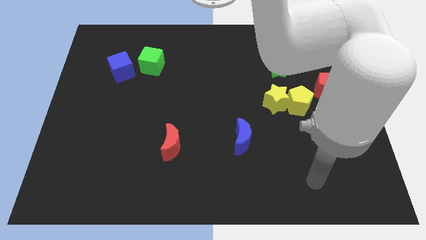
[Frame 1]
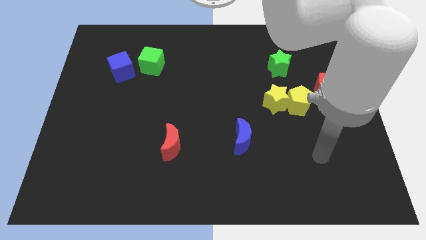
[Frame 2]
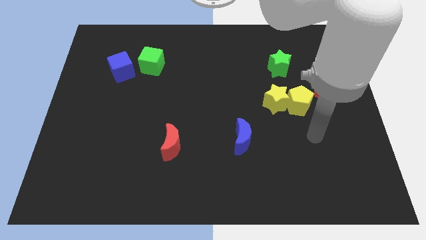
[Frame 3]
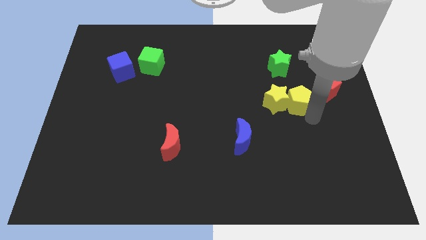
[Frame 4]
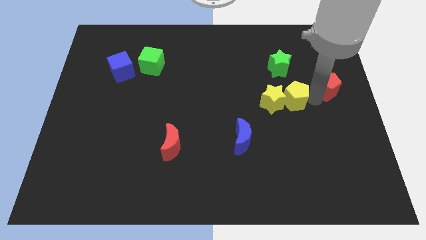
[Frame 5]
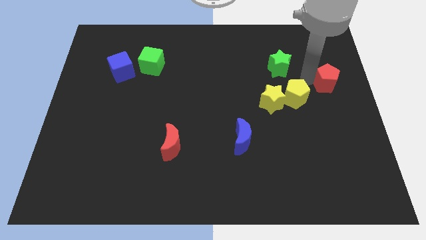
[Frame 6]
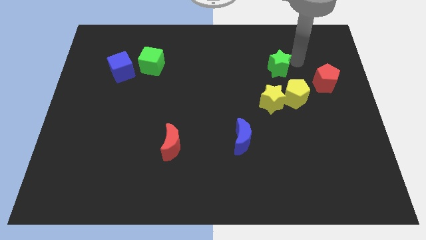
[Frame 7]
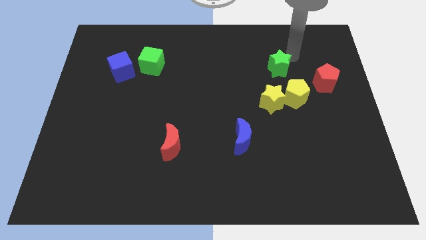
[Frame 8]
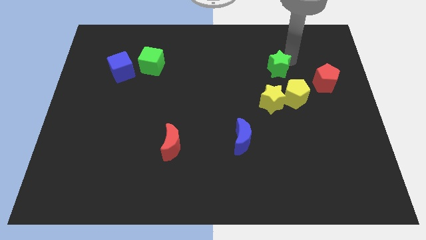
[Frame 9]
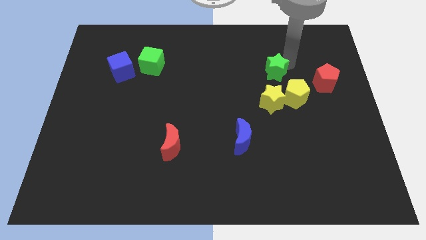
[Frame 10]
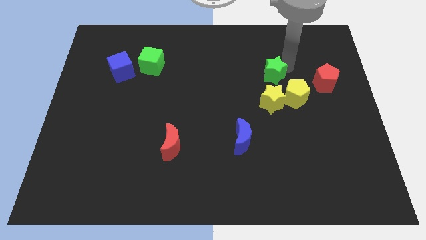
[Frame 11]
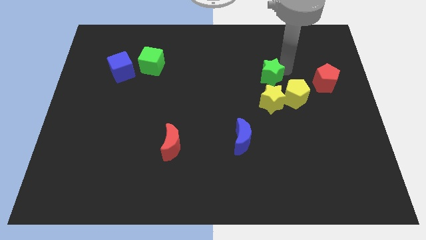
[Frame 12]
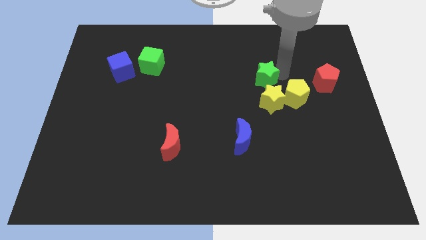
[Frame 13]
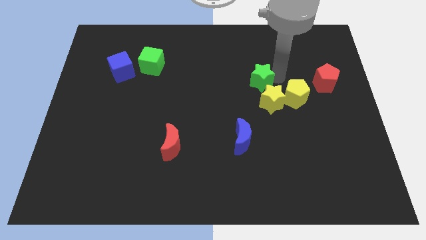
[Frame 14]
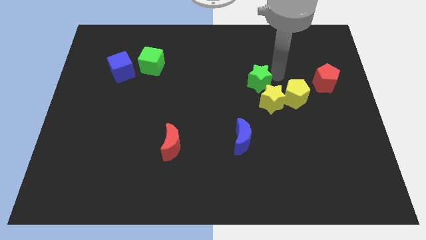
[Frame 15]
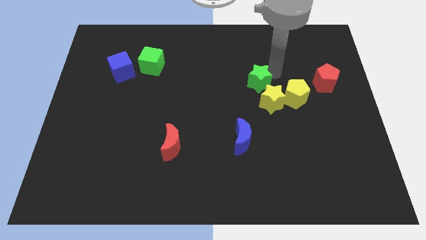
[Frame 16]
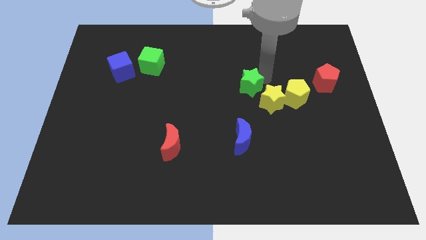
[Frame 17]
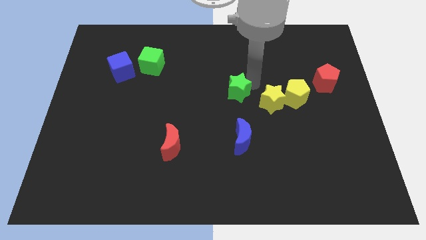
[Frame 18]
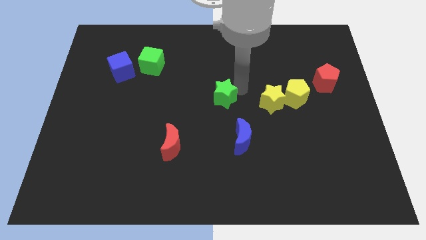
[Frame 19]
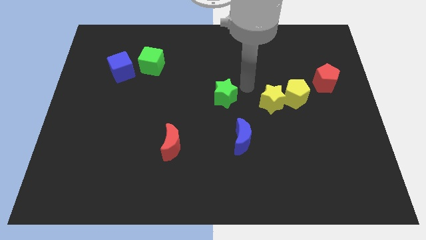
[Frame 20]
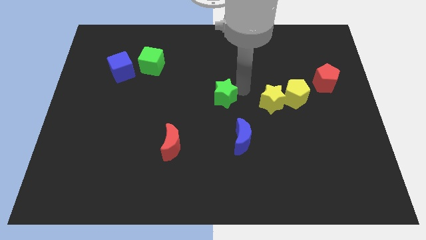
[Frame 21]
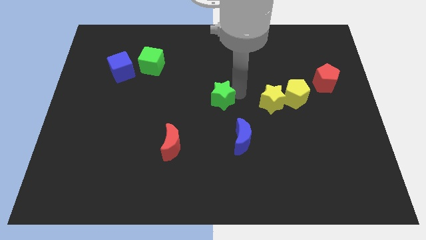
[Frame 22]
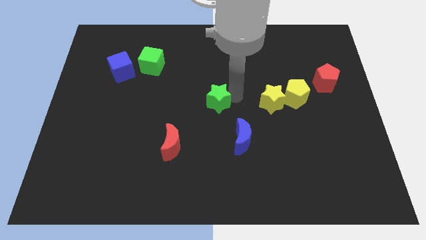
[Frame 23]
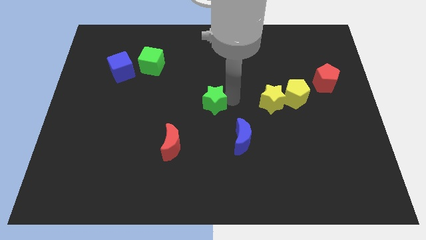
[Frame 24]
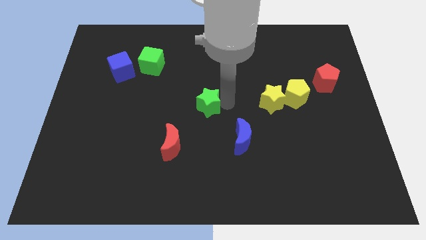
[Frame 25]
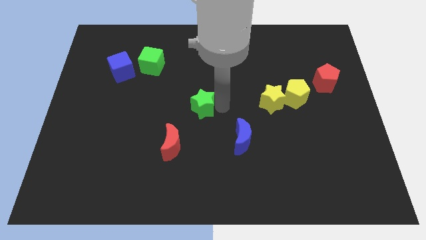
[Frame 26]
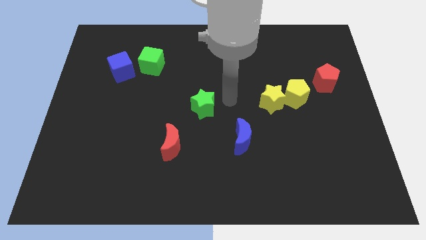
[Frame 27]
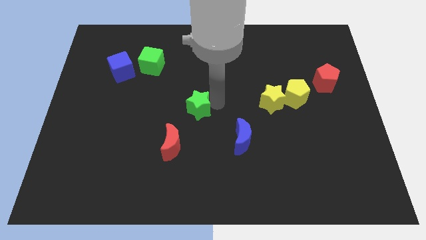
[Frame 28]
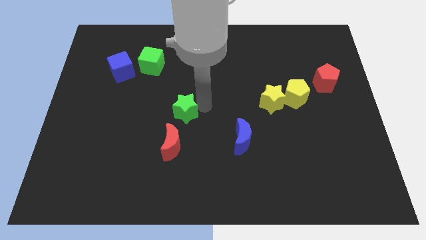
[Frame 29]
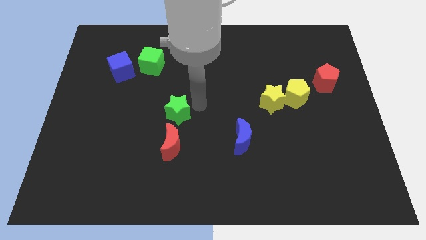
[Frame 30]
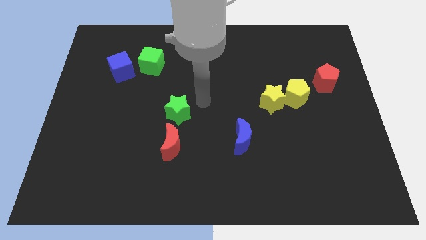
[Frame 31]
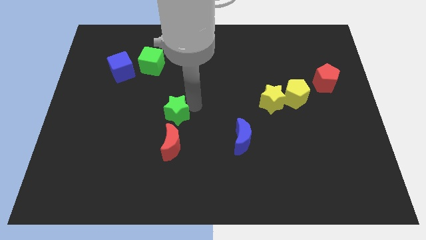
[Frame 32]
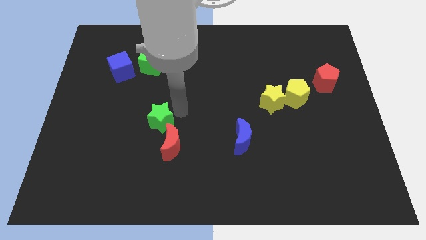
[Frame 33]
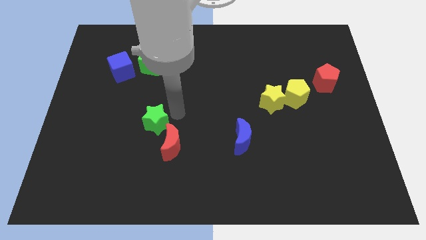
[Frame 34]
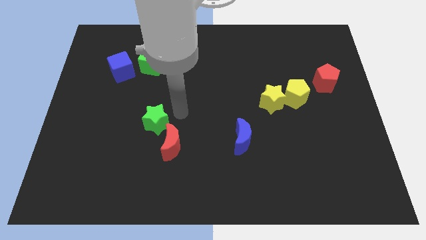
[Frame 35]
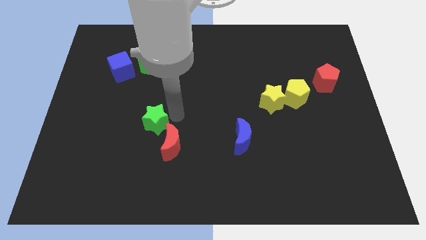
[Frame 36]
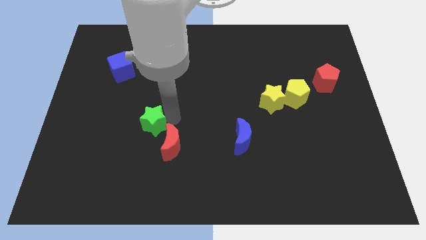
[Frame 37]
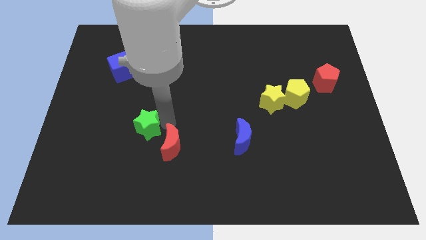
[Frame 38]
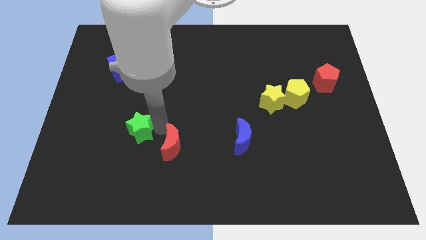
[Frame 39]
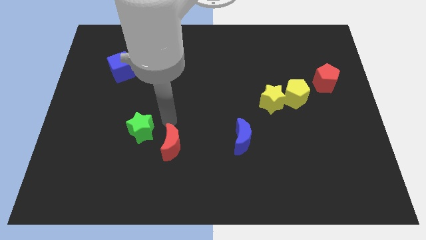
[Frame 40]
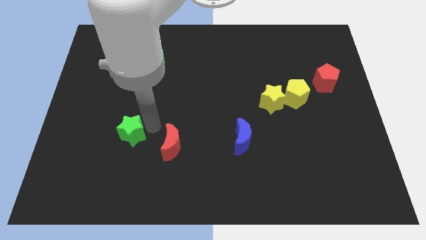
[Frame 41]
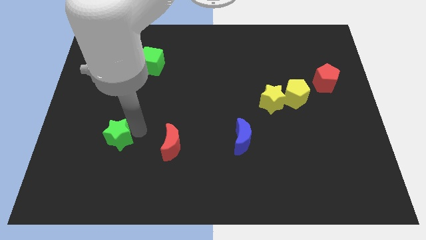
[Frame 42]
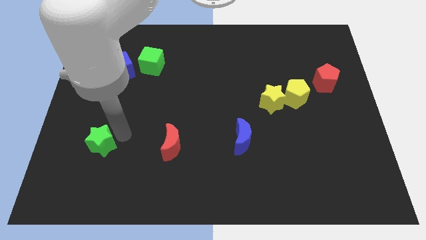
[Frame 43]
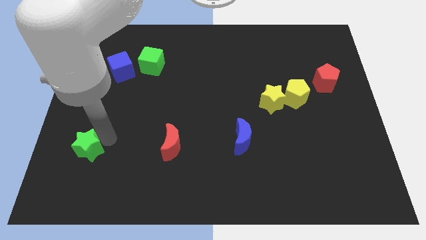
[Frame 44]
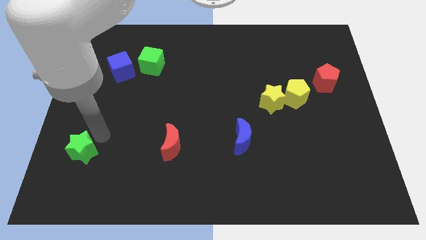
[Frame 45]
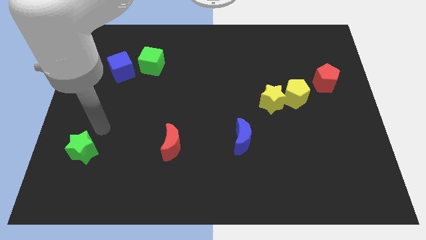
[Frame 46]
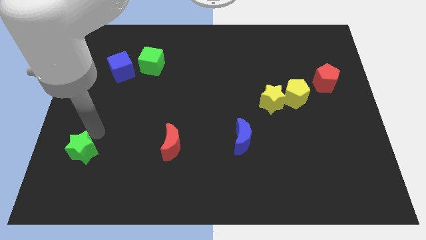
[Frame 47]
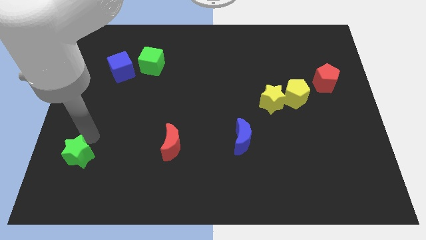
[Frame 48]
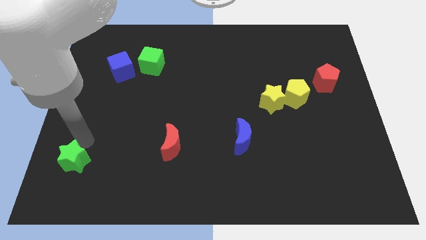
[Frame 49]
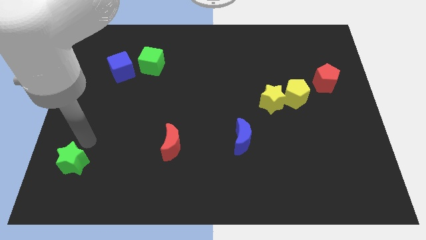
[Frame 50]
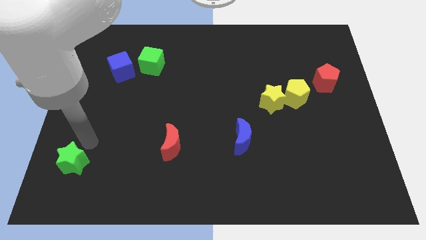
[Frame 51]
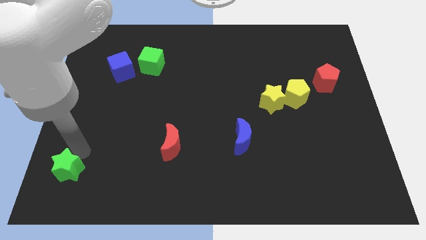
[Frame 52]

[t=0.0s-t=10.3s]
move the green star to the bottom left of the board

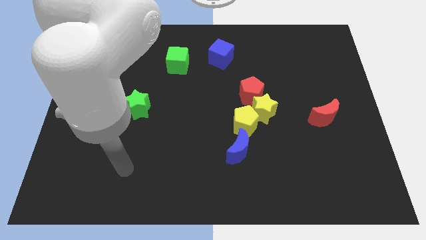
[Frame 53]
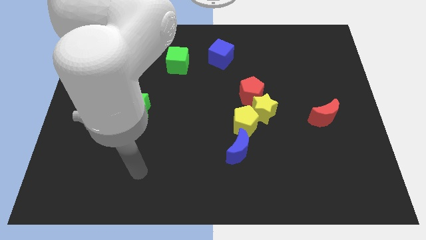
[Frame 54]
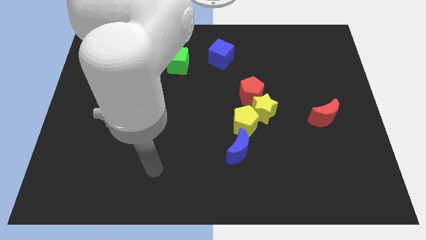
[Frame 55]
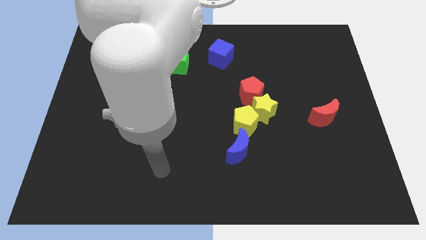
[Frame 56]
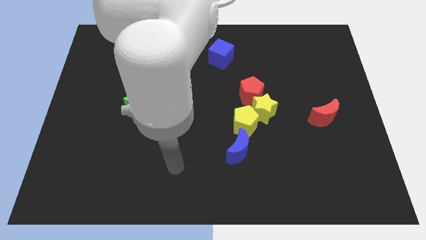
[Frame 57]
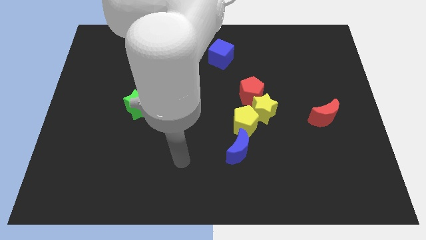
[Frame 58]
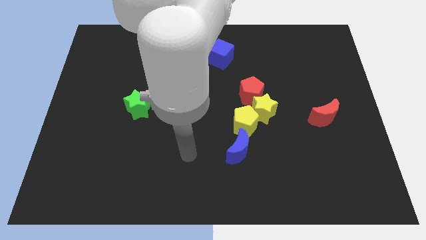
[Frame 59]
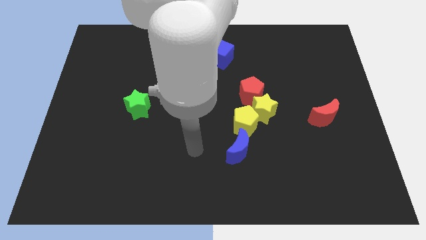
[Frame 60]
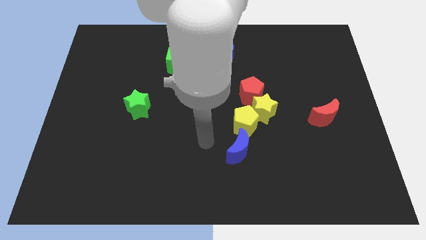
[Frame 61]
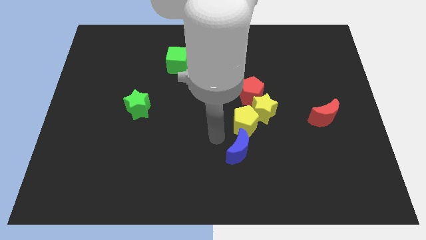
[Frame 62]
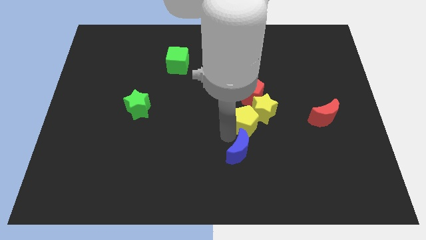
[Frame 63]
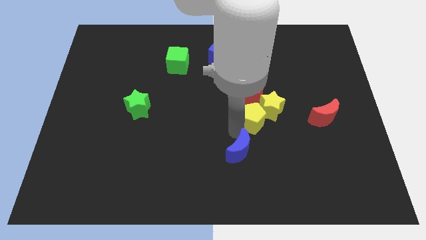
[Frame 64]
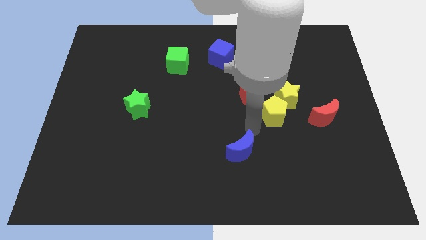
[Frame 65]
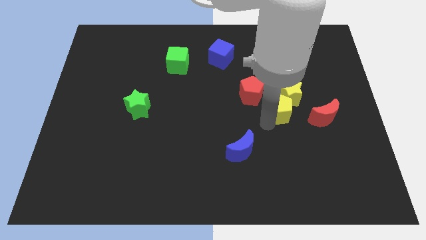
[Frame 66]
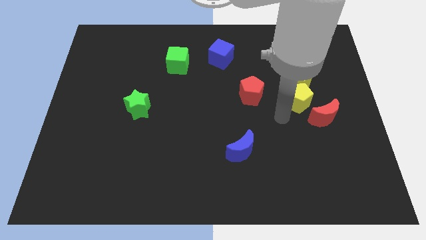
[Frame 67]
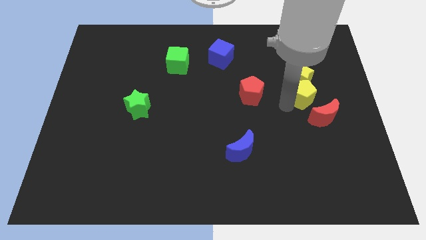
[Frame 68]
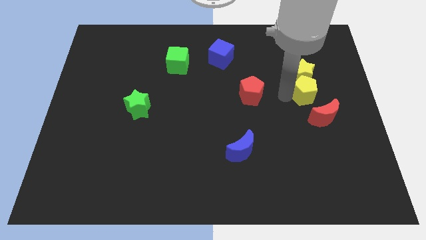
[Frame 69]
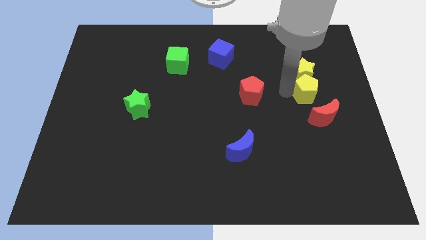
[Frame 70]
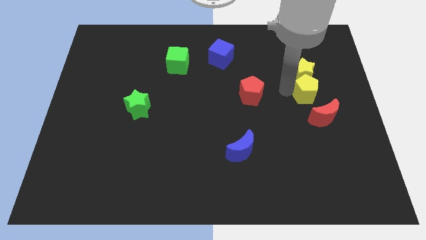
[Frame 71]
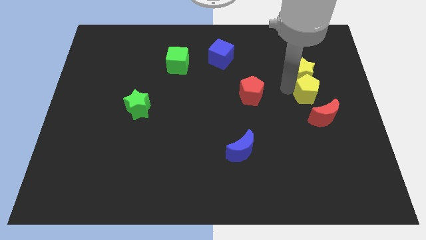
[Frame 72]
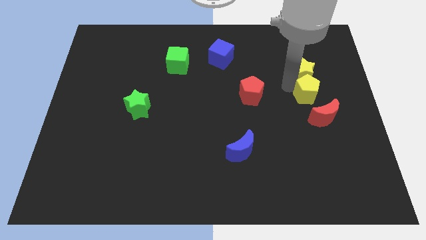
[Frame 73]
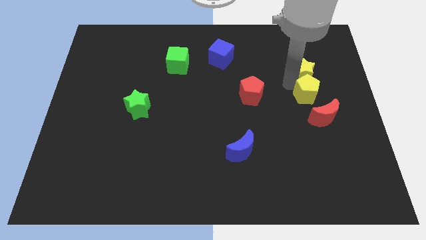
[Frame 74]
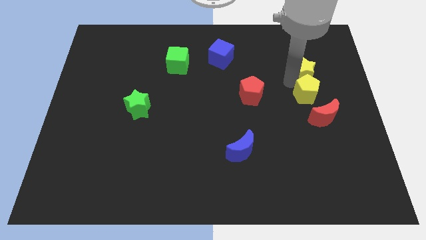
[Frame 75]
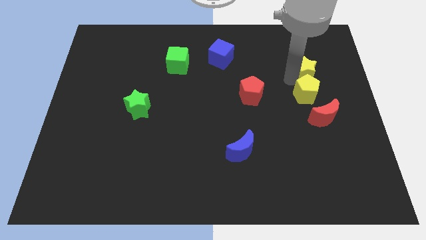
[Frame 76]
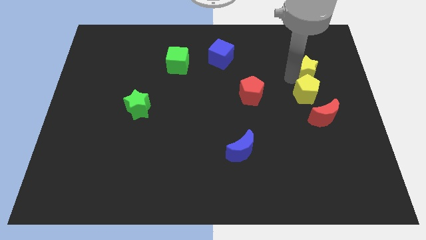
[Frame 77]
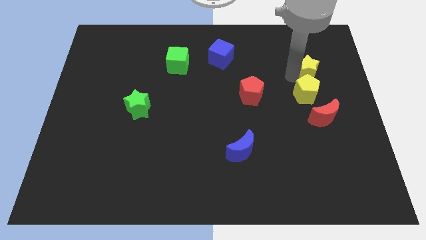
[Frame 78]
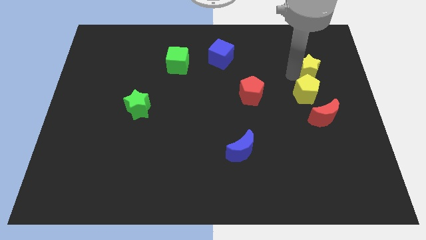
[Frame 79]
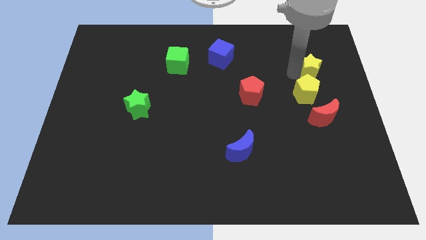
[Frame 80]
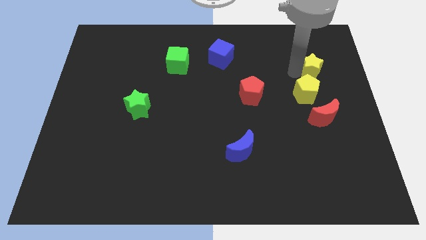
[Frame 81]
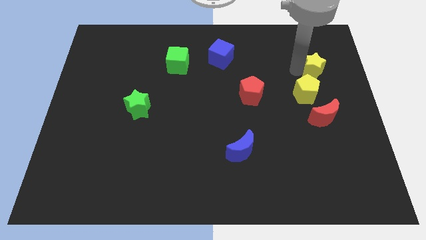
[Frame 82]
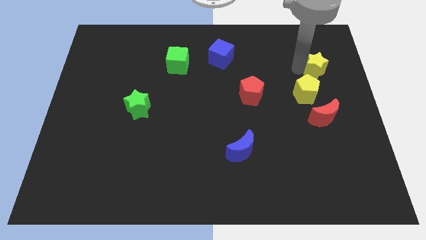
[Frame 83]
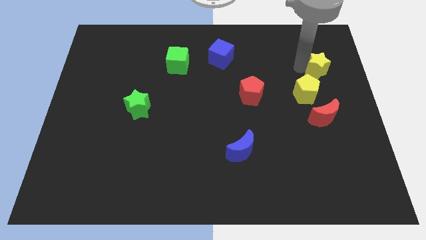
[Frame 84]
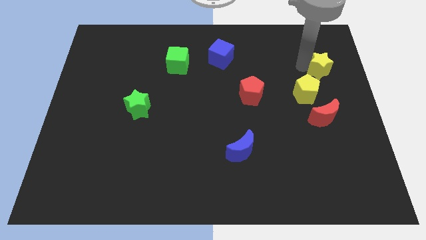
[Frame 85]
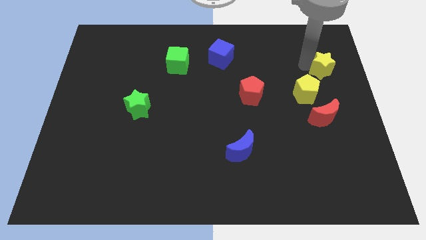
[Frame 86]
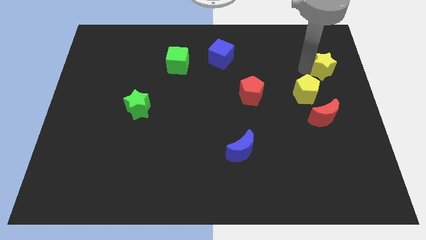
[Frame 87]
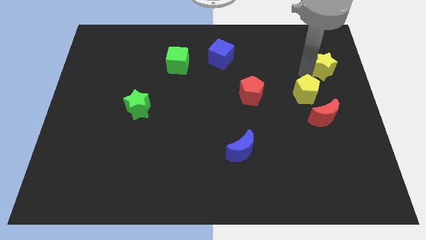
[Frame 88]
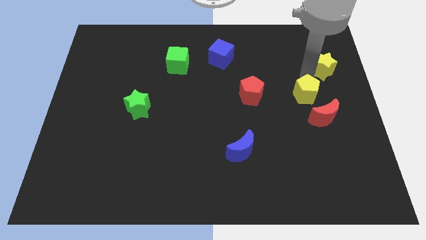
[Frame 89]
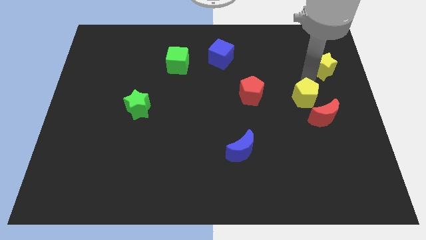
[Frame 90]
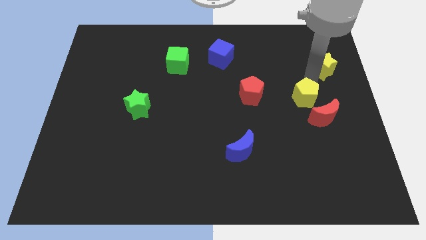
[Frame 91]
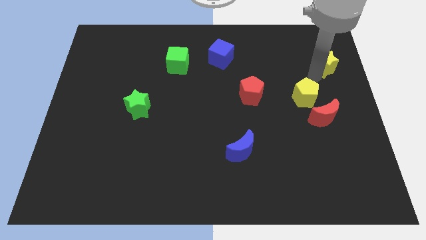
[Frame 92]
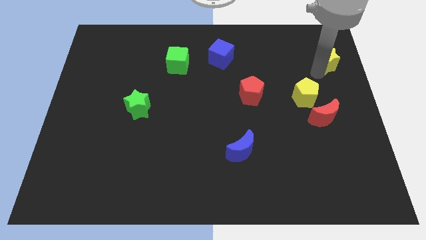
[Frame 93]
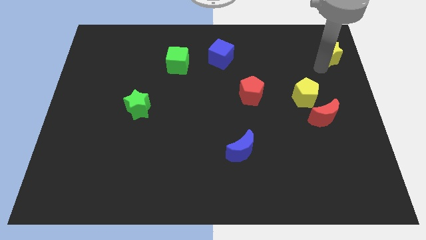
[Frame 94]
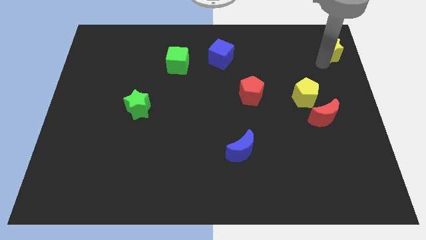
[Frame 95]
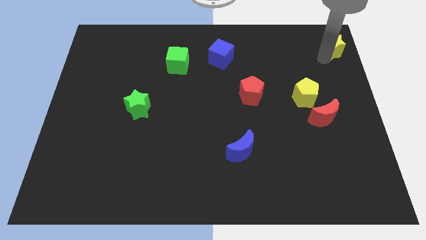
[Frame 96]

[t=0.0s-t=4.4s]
push the yellow star to the top right
